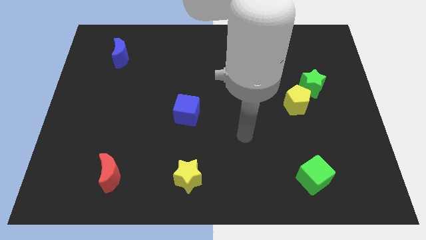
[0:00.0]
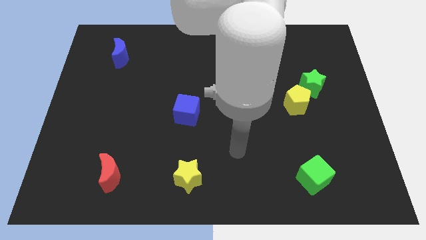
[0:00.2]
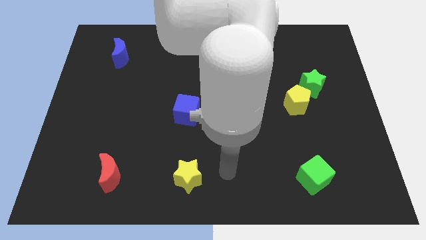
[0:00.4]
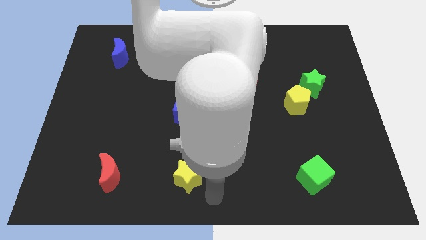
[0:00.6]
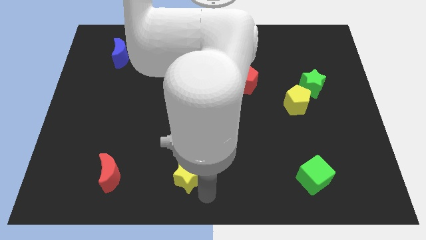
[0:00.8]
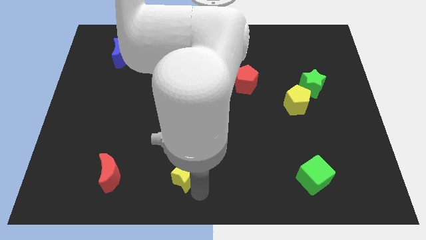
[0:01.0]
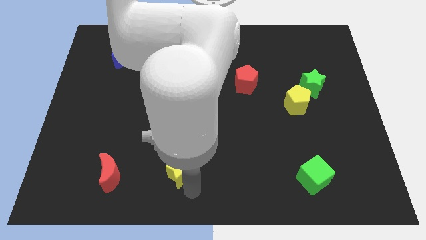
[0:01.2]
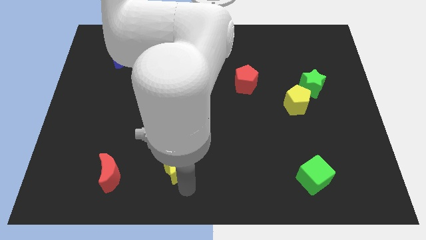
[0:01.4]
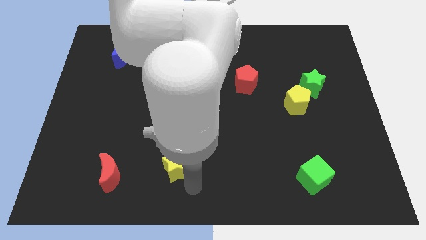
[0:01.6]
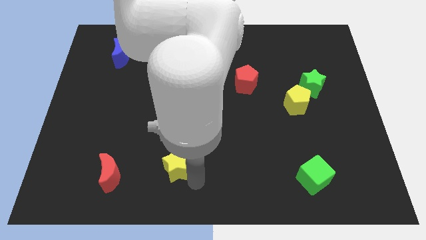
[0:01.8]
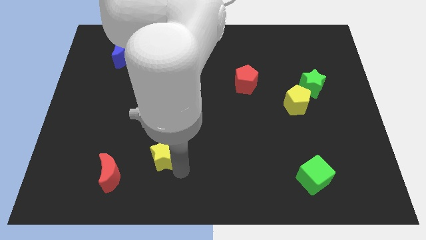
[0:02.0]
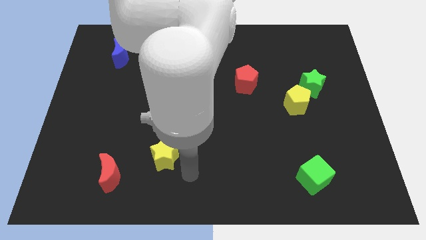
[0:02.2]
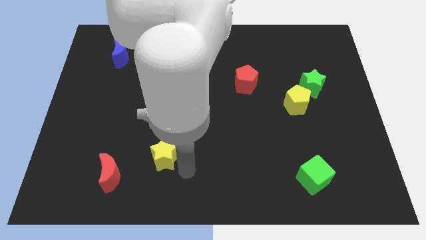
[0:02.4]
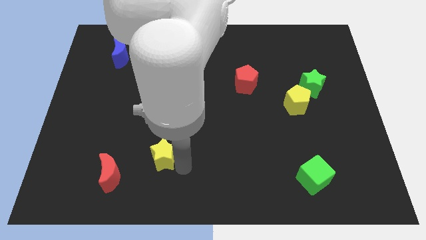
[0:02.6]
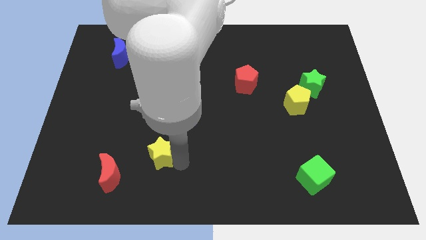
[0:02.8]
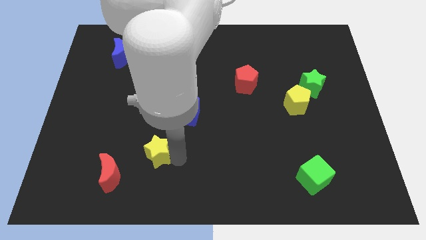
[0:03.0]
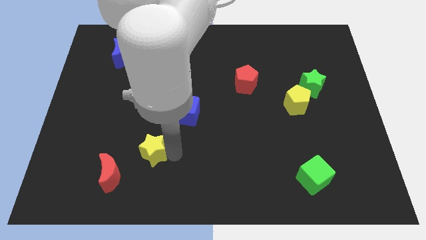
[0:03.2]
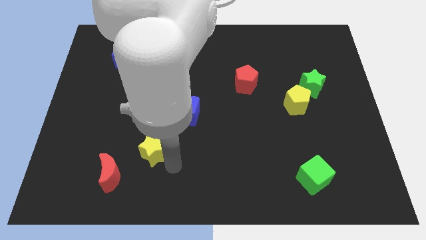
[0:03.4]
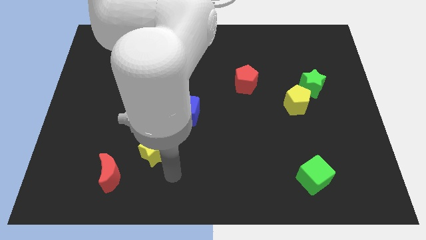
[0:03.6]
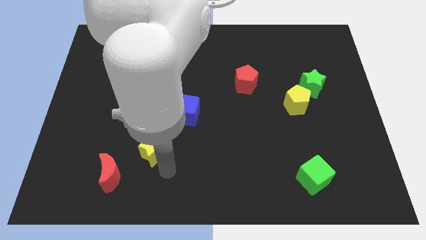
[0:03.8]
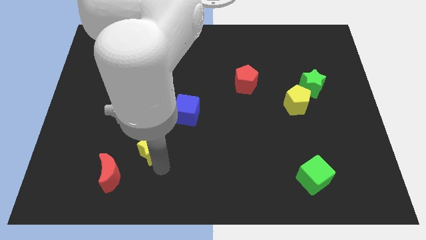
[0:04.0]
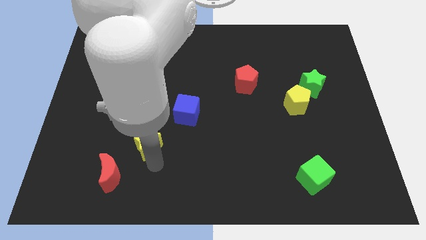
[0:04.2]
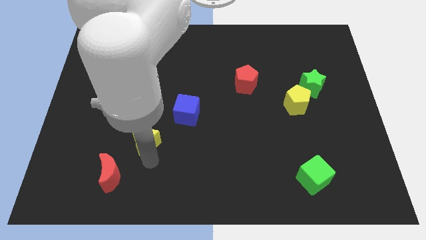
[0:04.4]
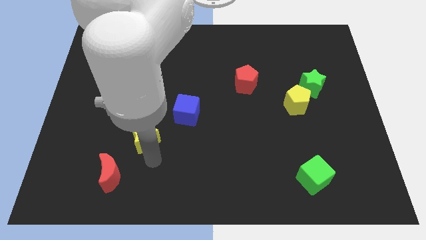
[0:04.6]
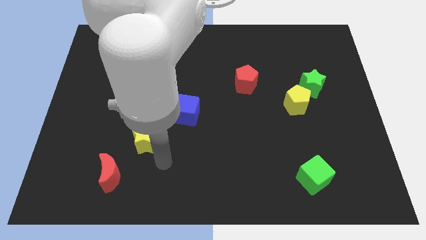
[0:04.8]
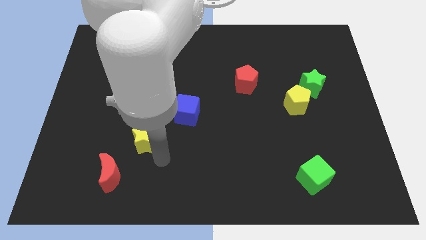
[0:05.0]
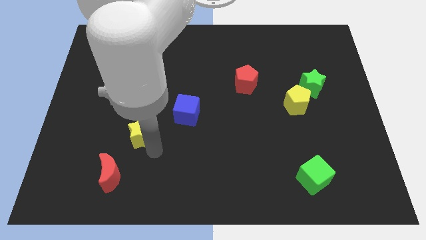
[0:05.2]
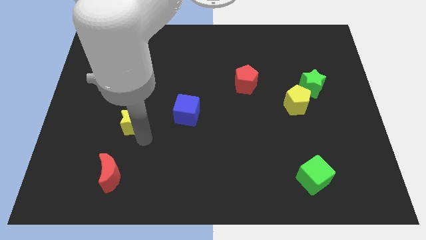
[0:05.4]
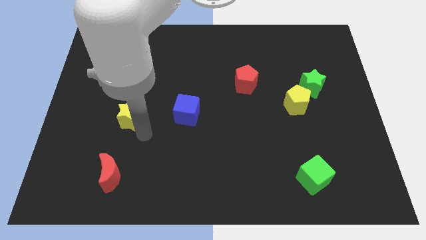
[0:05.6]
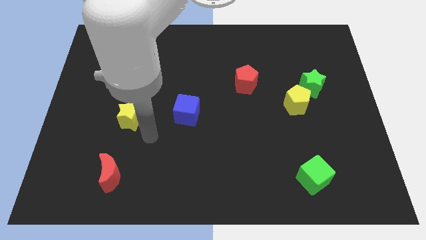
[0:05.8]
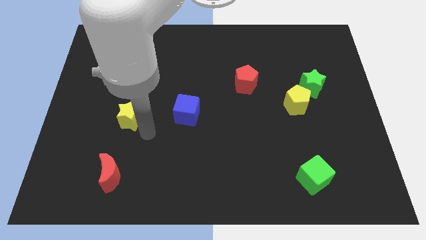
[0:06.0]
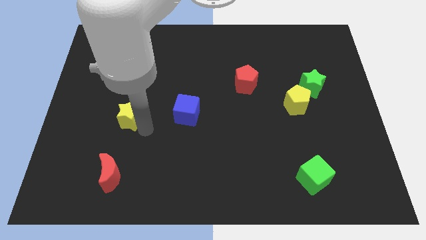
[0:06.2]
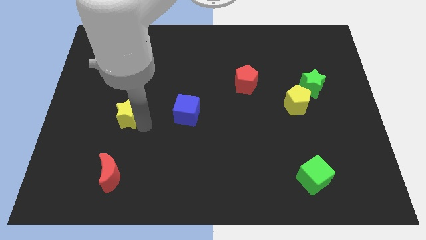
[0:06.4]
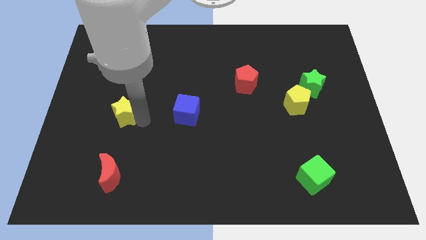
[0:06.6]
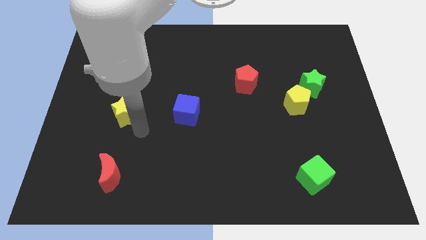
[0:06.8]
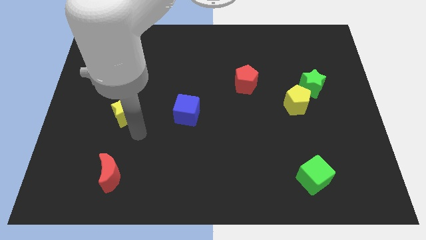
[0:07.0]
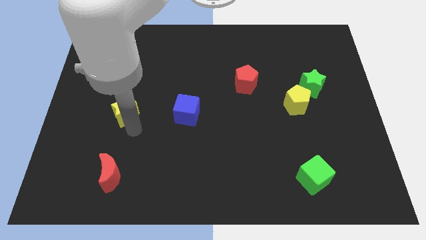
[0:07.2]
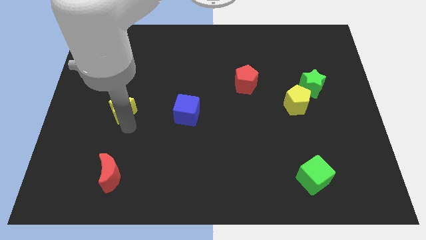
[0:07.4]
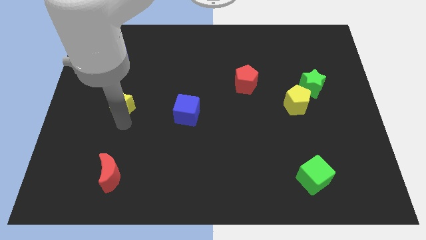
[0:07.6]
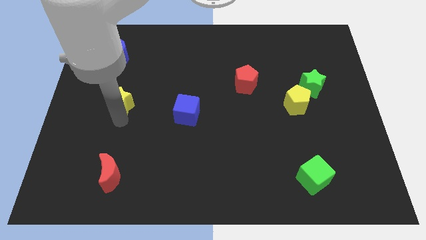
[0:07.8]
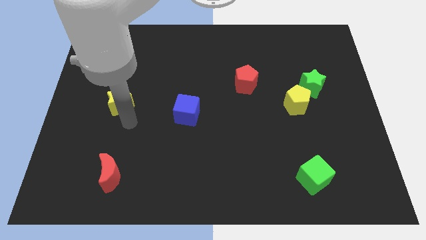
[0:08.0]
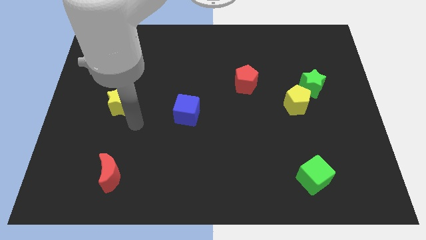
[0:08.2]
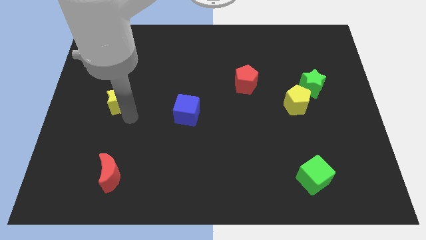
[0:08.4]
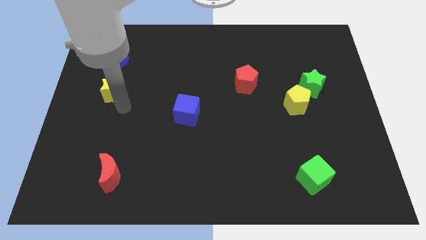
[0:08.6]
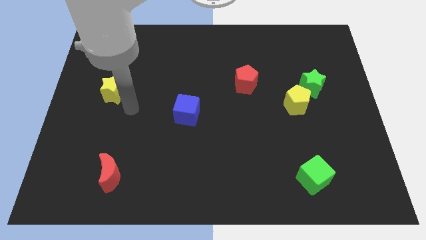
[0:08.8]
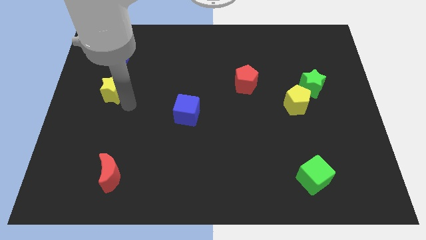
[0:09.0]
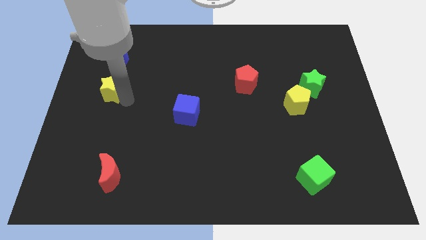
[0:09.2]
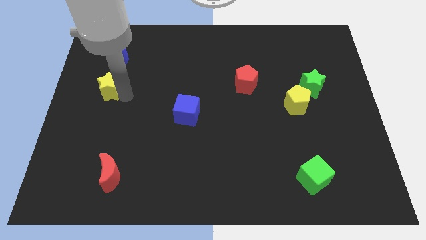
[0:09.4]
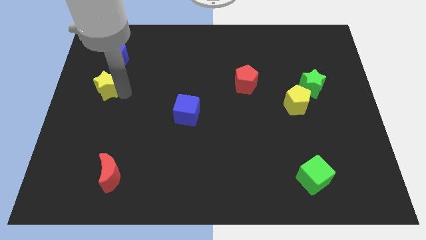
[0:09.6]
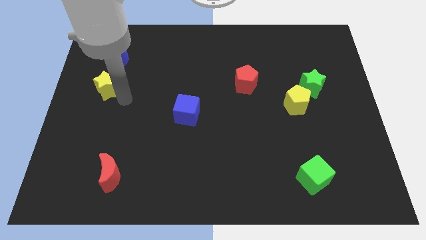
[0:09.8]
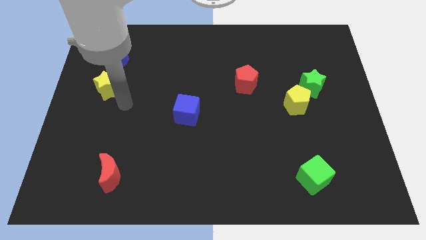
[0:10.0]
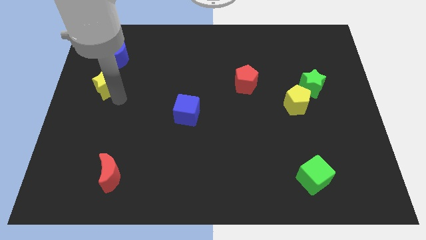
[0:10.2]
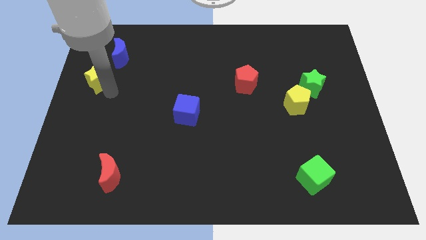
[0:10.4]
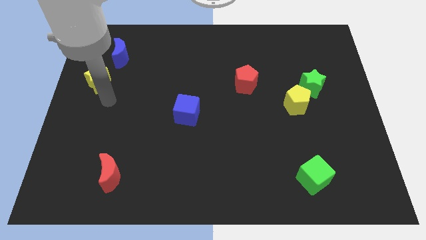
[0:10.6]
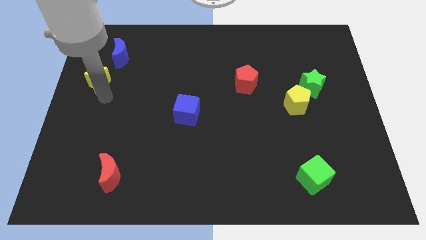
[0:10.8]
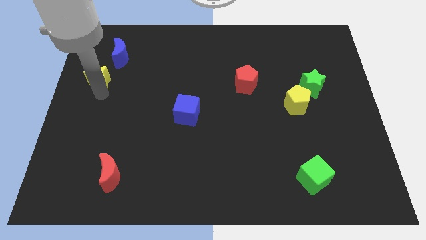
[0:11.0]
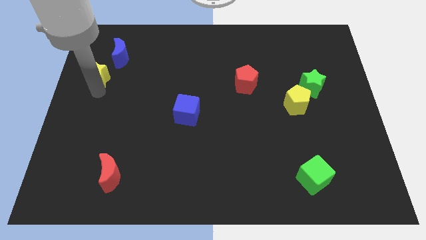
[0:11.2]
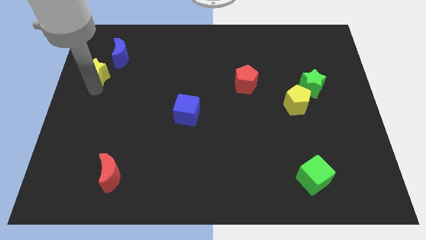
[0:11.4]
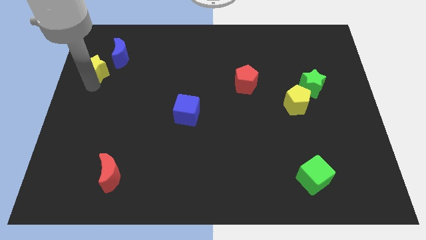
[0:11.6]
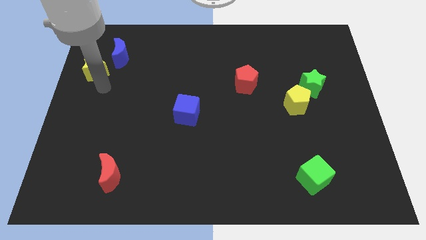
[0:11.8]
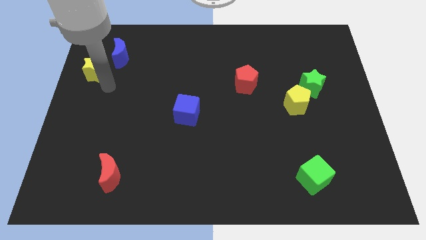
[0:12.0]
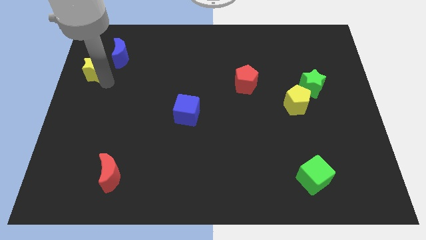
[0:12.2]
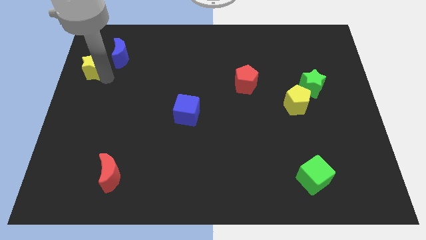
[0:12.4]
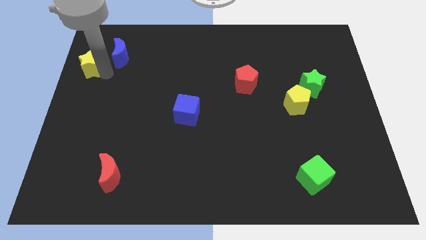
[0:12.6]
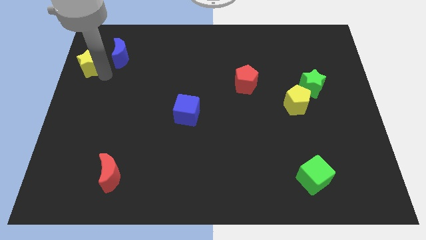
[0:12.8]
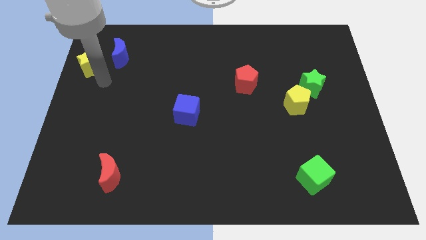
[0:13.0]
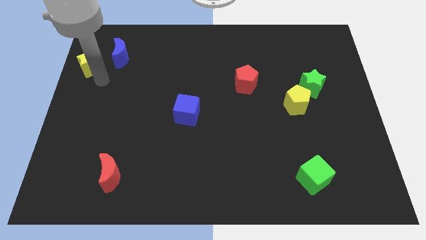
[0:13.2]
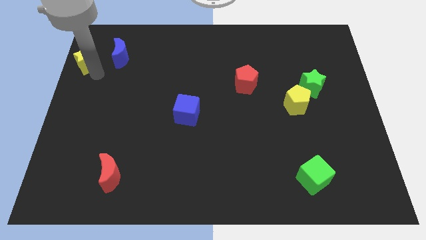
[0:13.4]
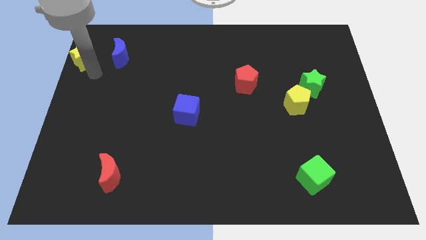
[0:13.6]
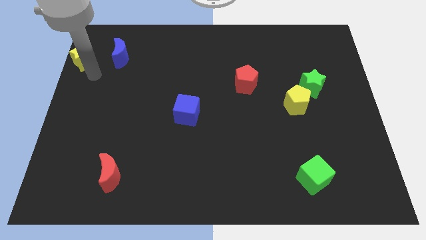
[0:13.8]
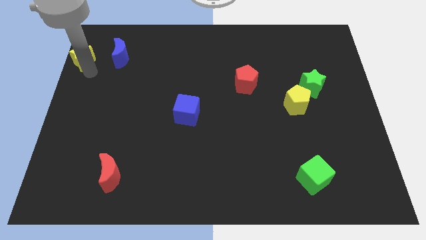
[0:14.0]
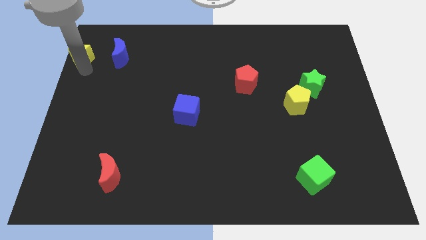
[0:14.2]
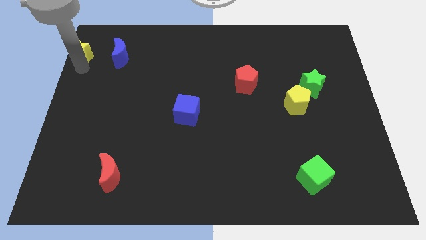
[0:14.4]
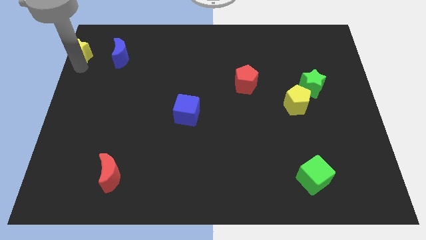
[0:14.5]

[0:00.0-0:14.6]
move the yellow star to the upper left corner
